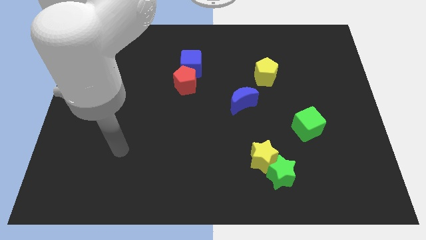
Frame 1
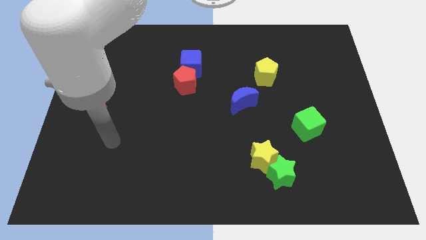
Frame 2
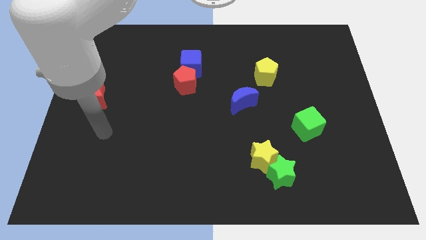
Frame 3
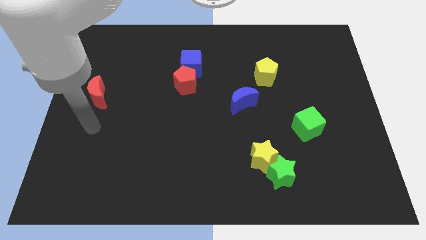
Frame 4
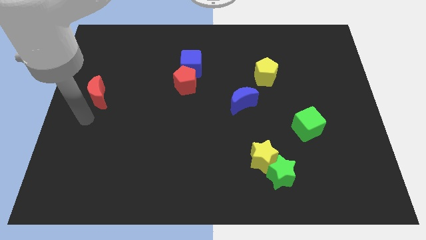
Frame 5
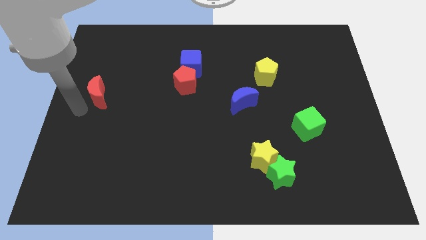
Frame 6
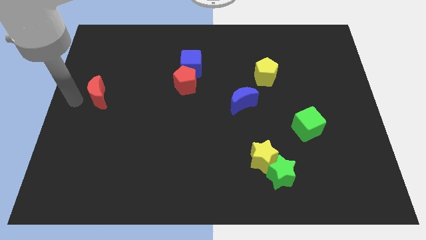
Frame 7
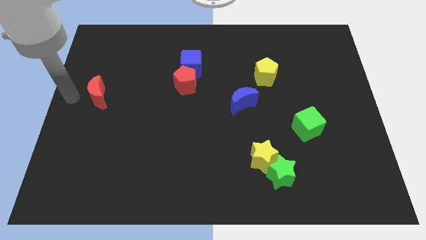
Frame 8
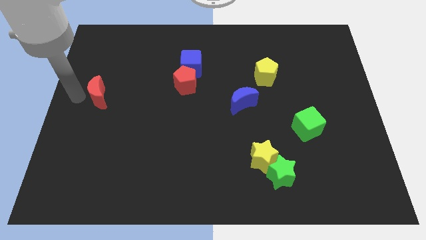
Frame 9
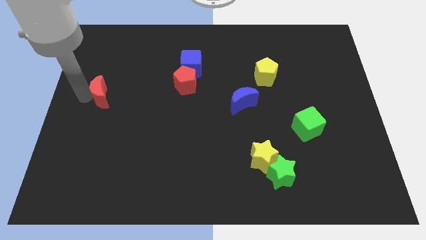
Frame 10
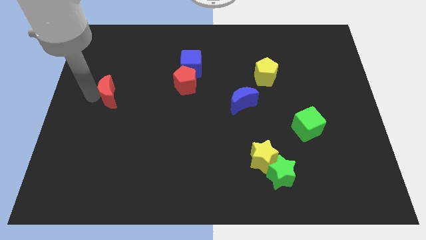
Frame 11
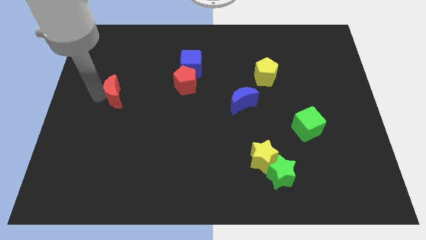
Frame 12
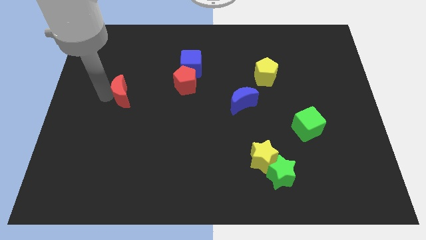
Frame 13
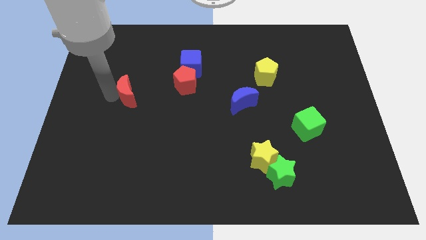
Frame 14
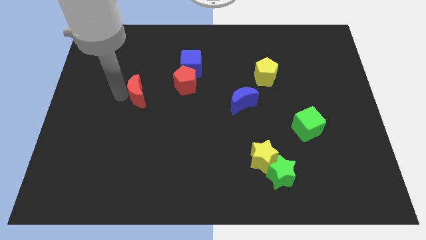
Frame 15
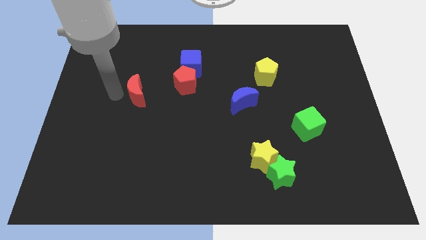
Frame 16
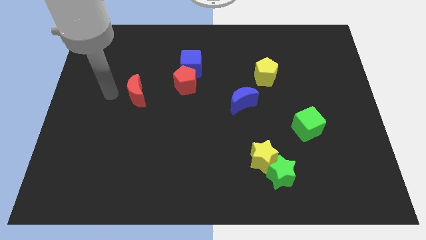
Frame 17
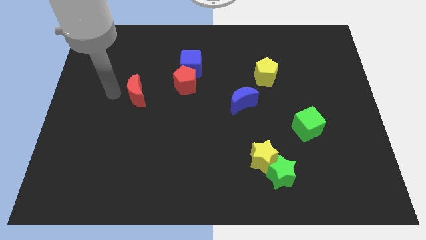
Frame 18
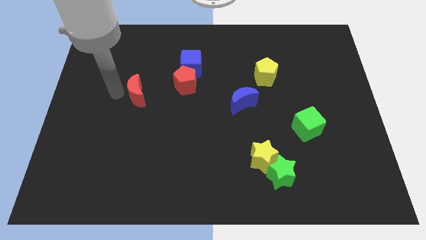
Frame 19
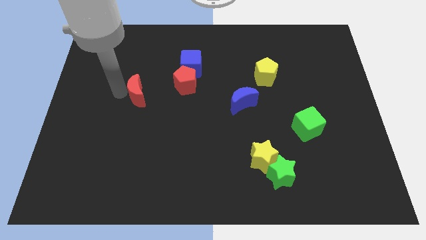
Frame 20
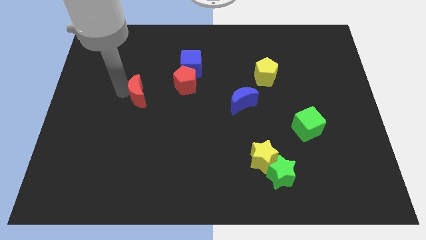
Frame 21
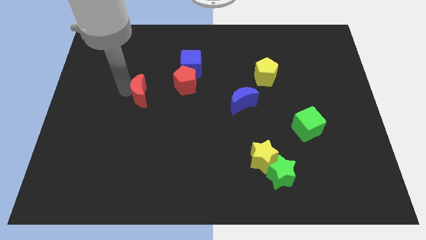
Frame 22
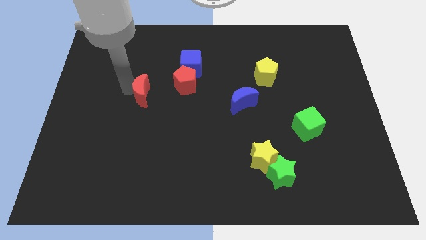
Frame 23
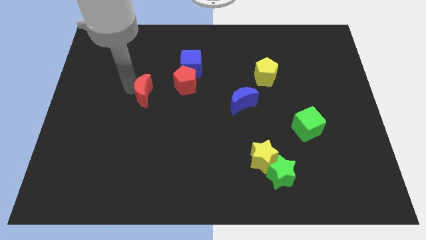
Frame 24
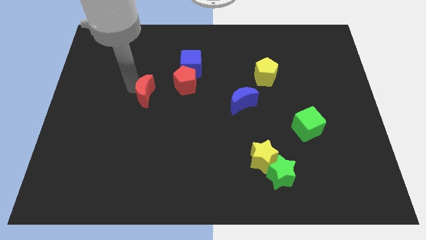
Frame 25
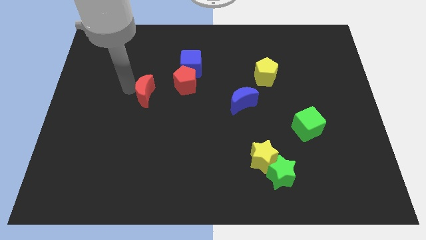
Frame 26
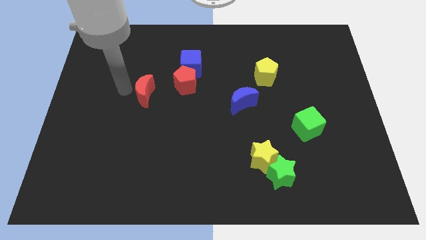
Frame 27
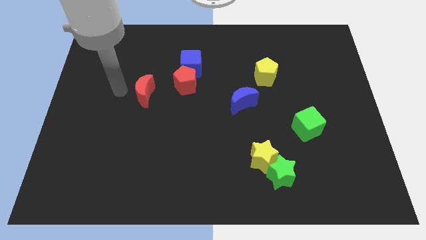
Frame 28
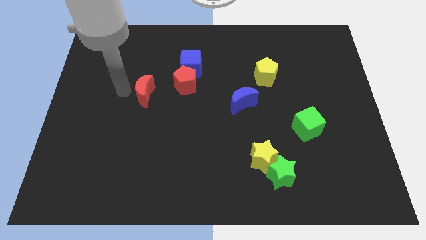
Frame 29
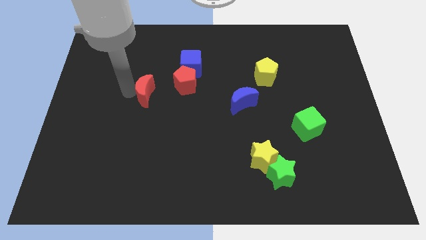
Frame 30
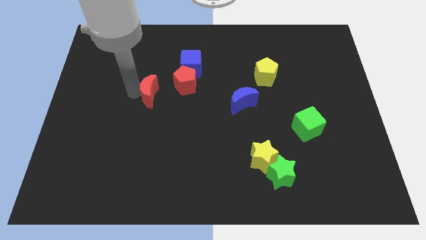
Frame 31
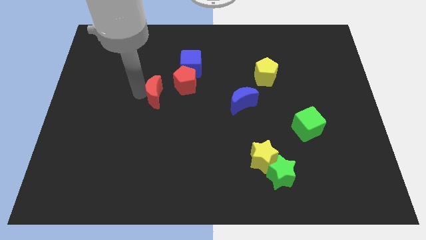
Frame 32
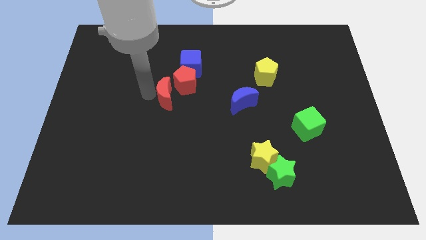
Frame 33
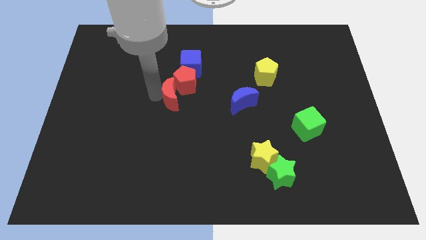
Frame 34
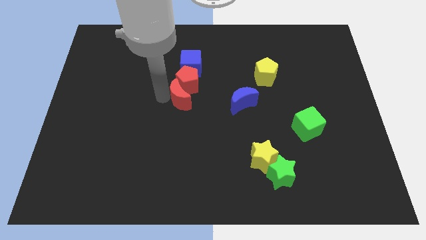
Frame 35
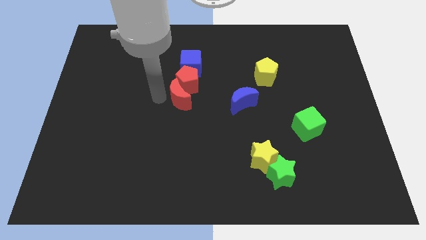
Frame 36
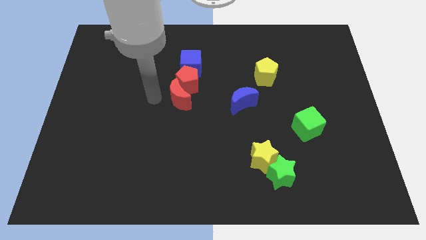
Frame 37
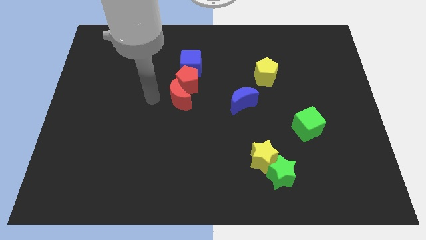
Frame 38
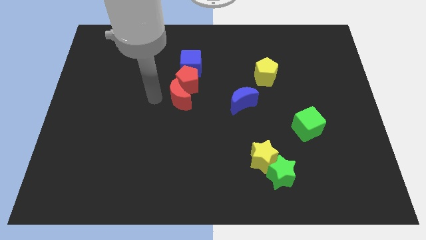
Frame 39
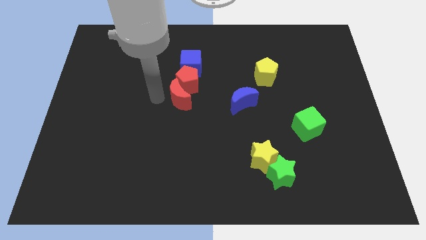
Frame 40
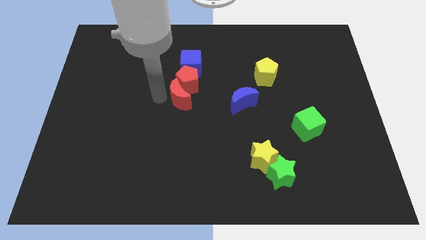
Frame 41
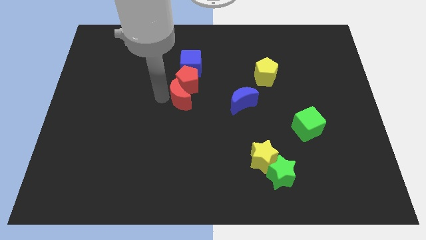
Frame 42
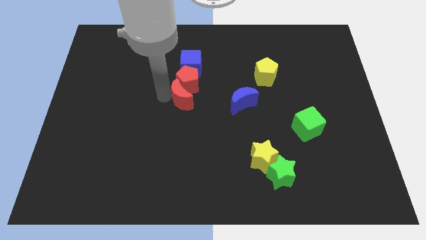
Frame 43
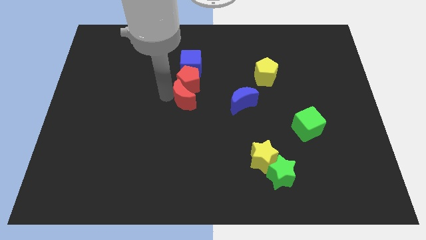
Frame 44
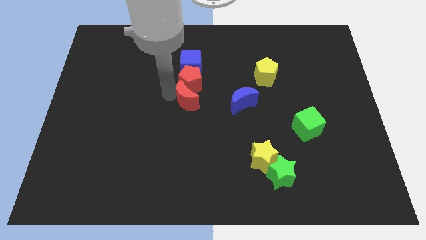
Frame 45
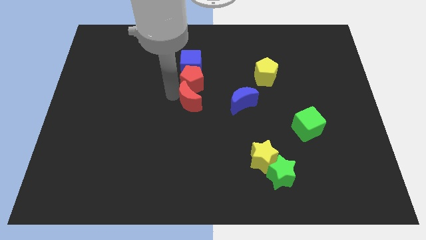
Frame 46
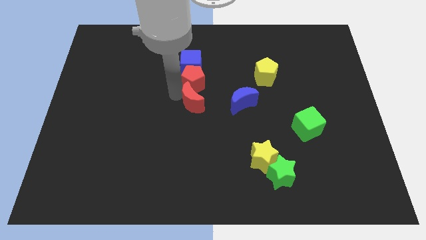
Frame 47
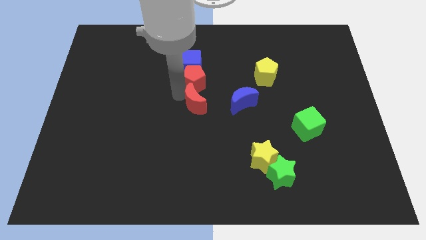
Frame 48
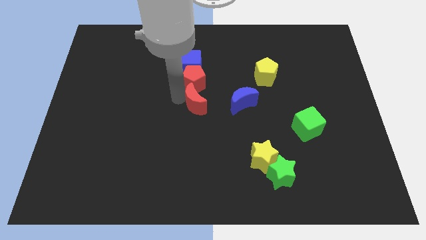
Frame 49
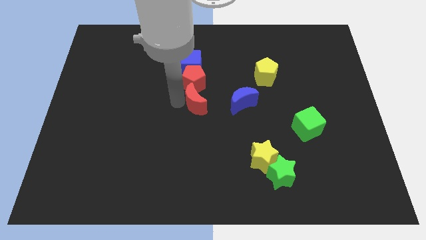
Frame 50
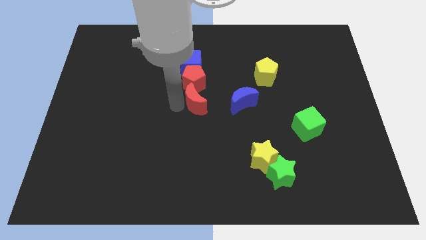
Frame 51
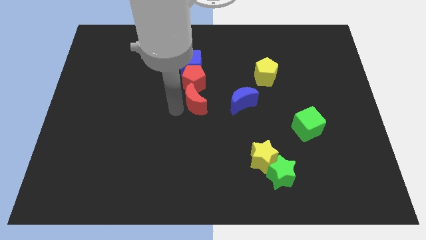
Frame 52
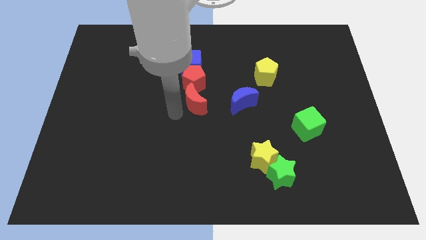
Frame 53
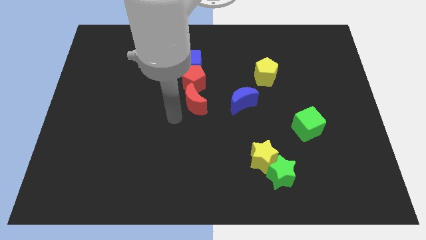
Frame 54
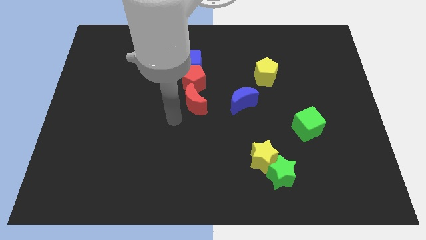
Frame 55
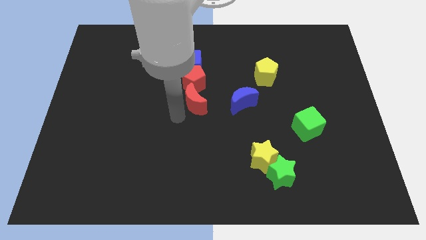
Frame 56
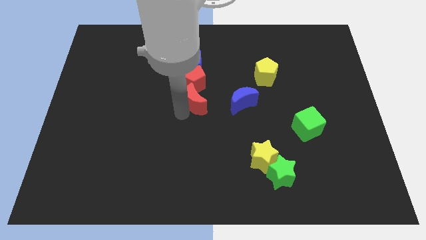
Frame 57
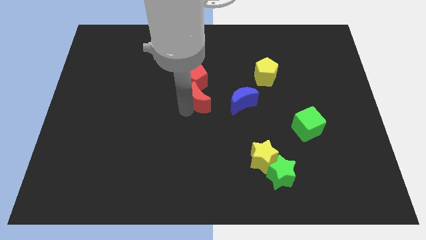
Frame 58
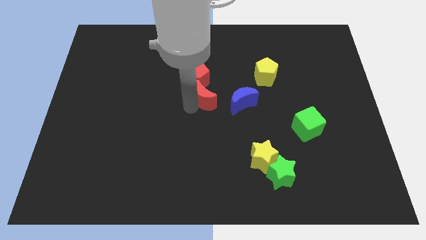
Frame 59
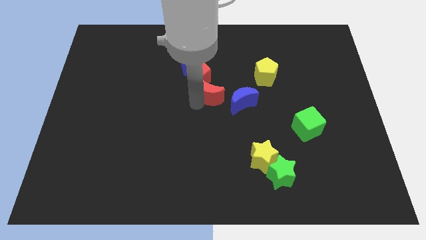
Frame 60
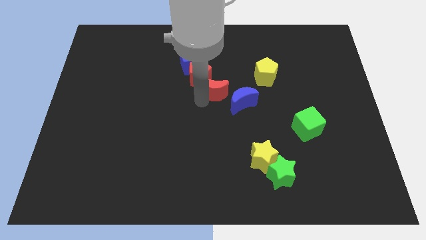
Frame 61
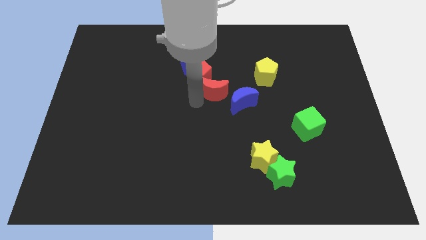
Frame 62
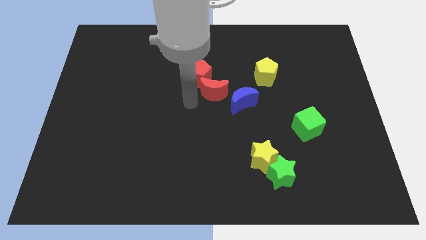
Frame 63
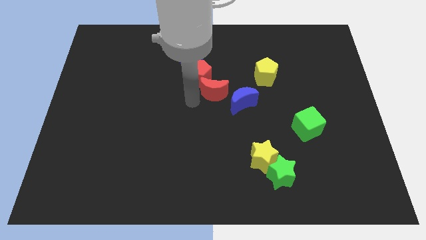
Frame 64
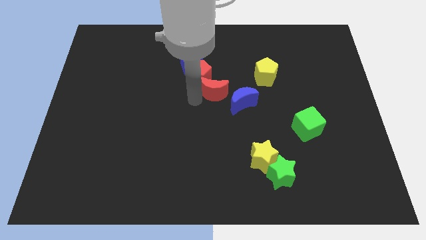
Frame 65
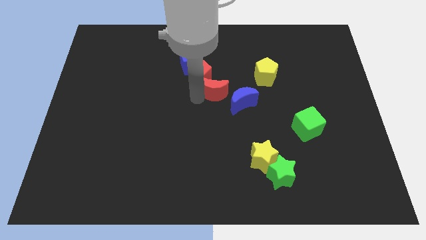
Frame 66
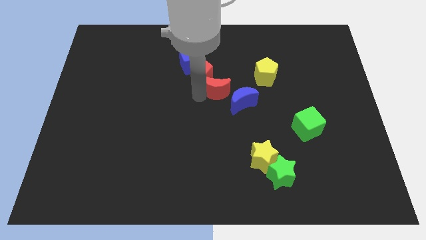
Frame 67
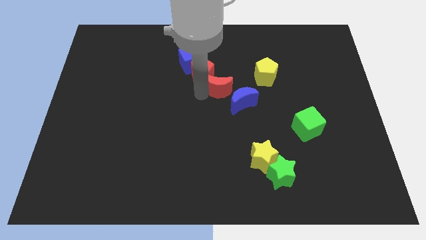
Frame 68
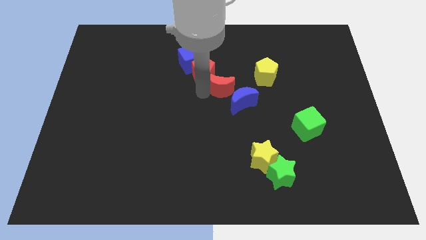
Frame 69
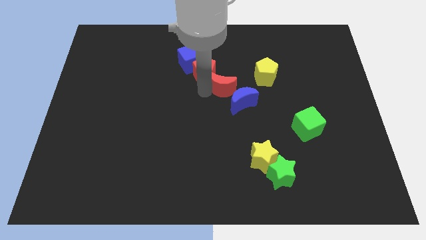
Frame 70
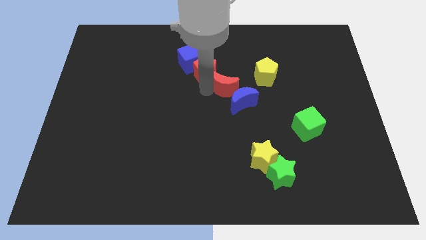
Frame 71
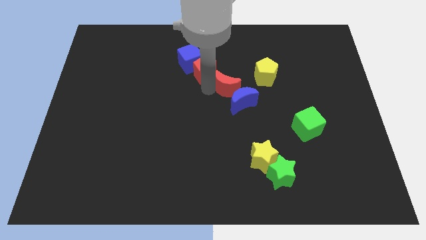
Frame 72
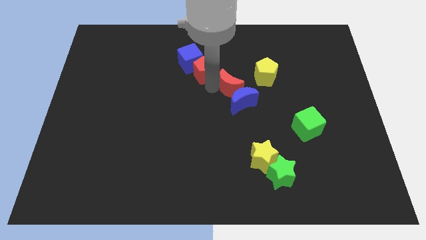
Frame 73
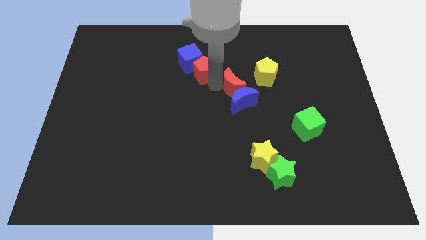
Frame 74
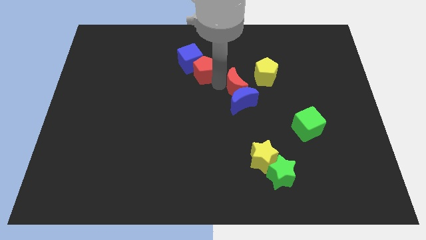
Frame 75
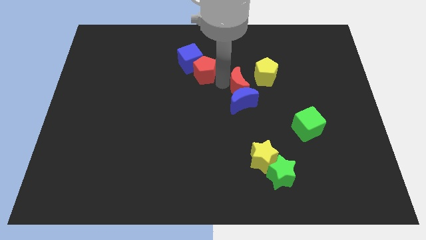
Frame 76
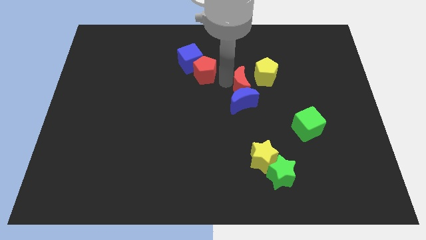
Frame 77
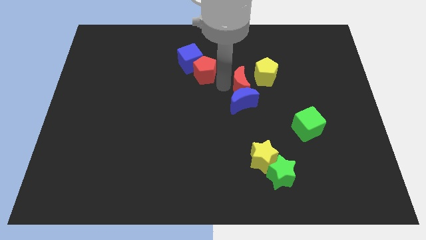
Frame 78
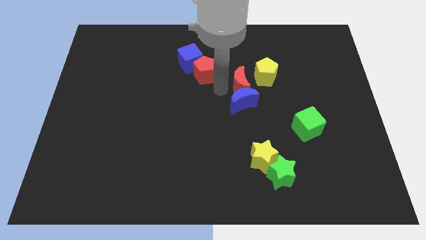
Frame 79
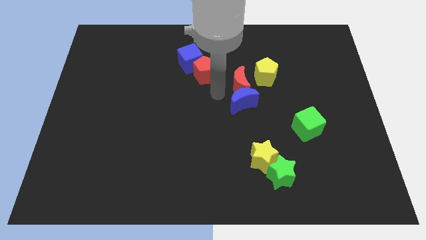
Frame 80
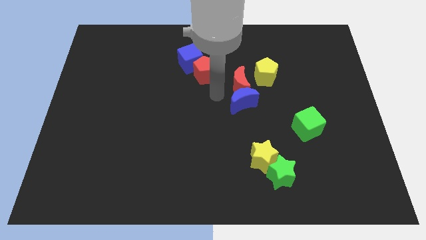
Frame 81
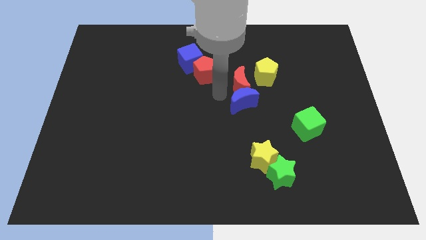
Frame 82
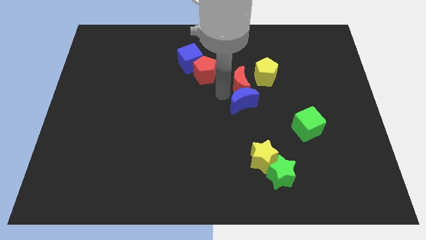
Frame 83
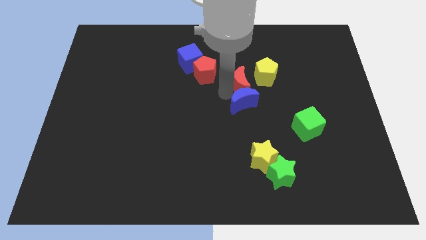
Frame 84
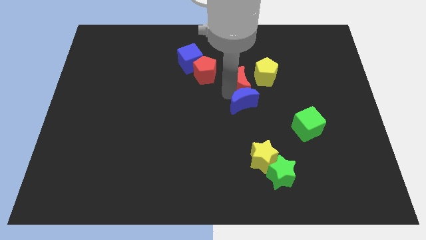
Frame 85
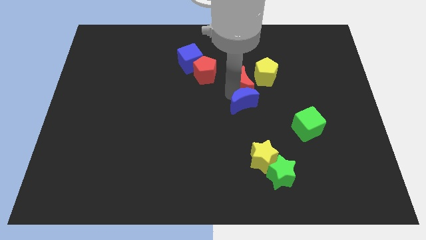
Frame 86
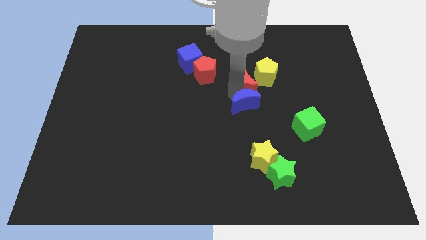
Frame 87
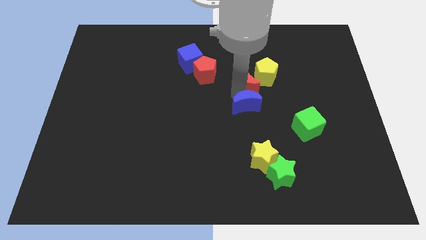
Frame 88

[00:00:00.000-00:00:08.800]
push the red moon next to the yellow pentagon
